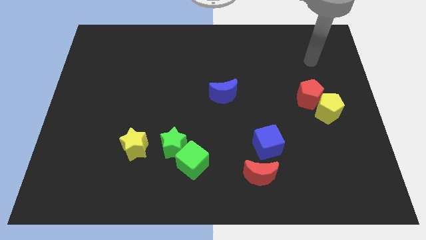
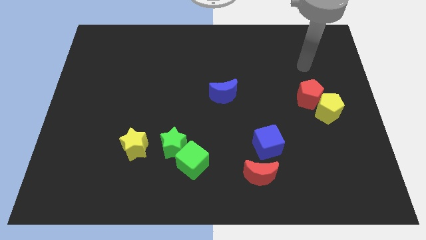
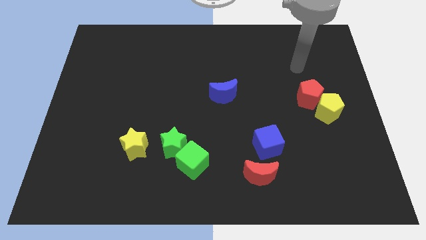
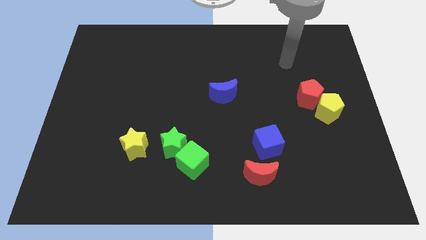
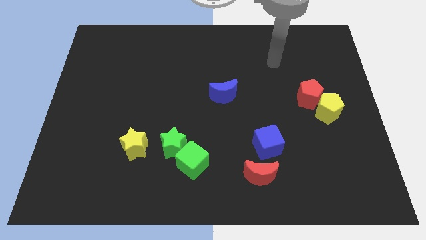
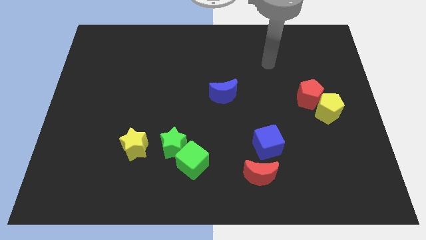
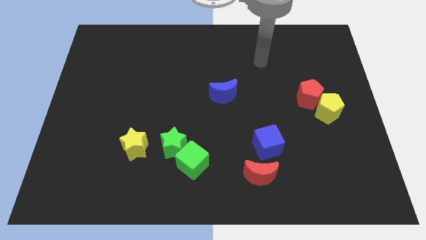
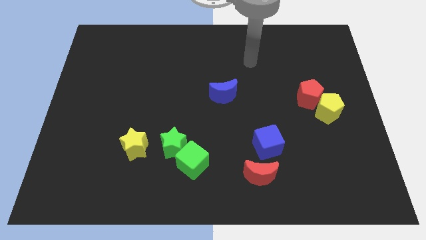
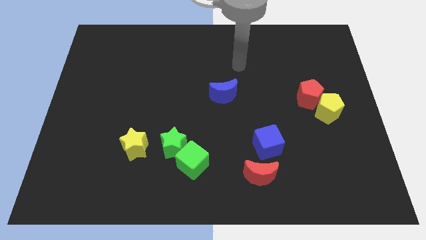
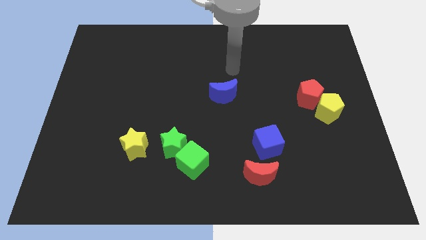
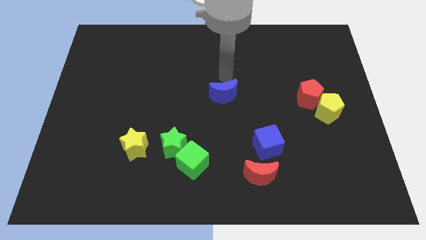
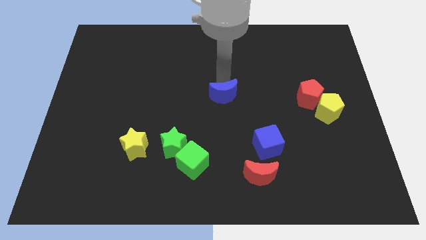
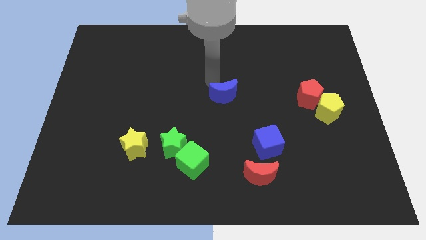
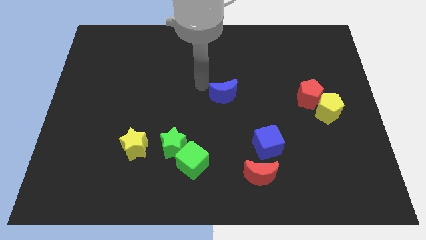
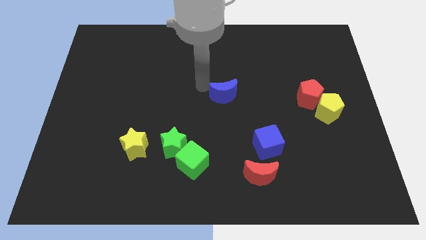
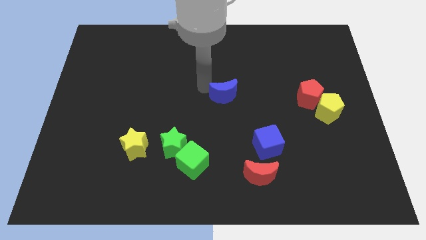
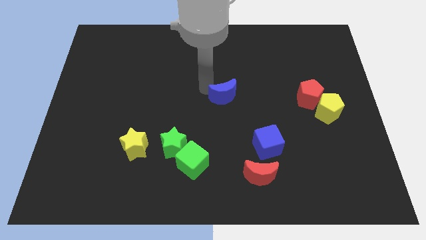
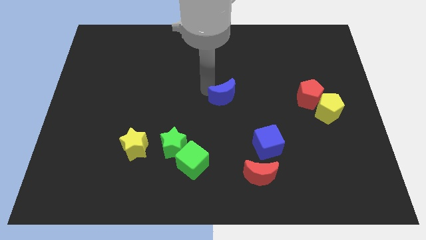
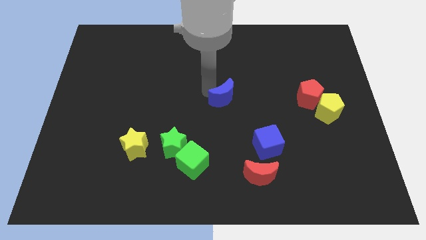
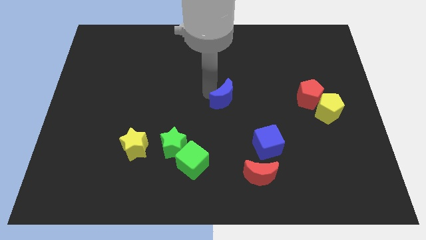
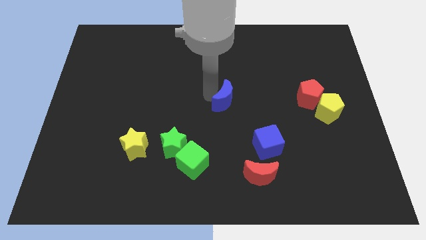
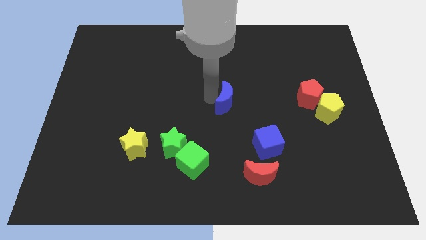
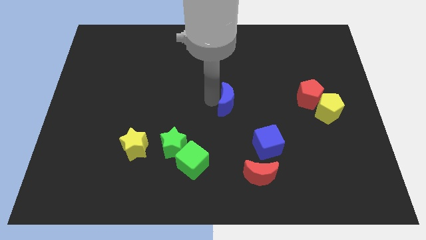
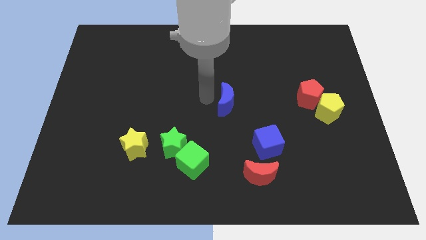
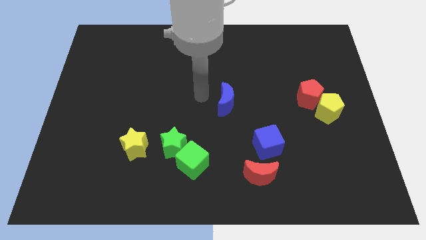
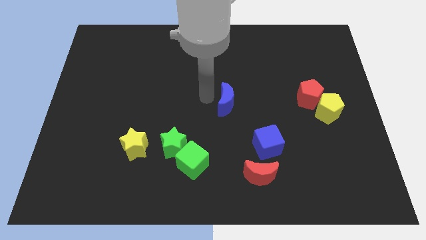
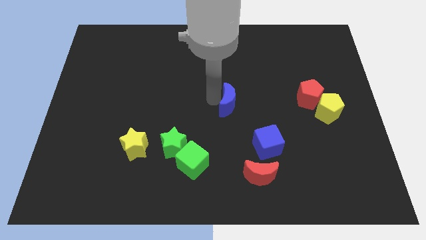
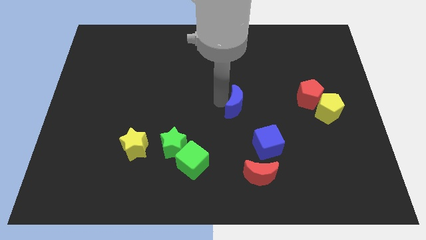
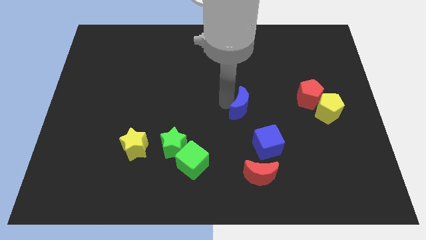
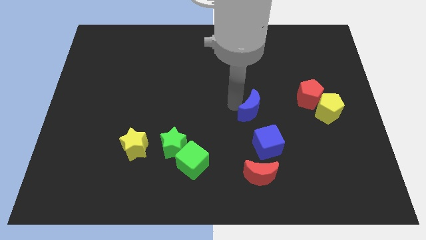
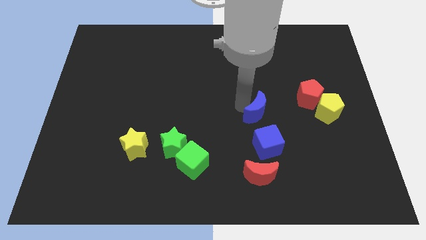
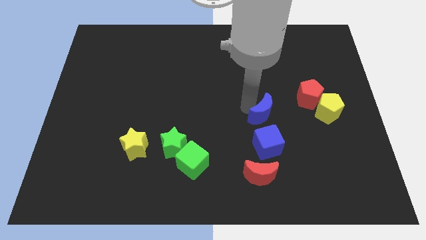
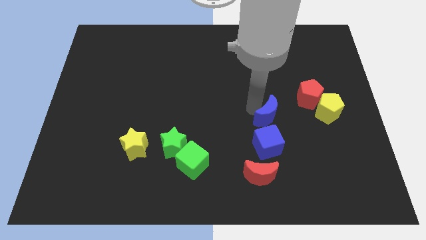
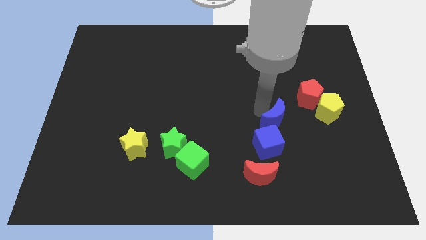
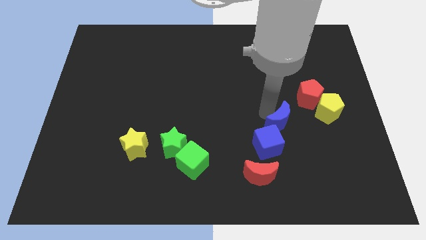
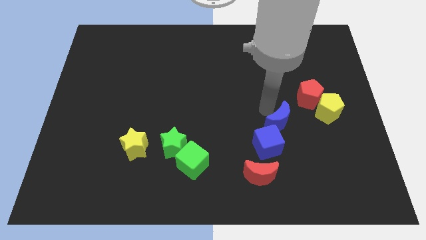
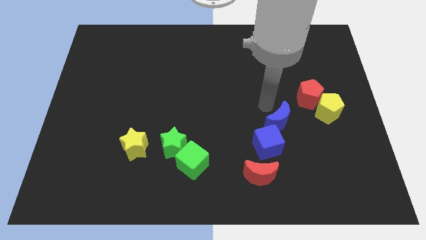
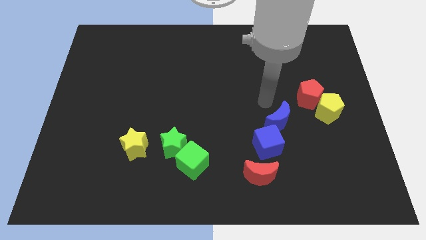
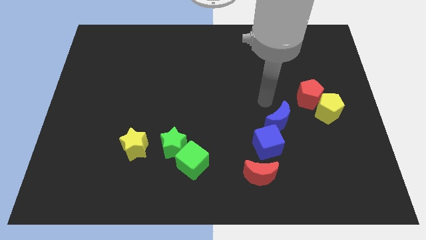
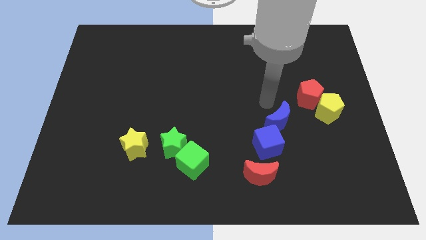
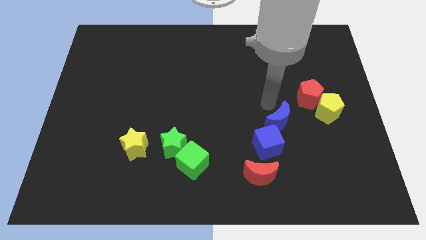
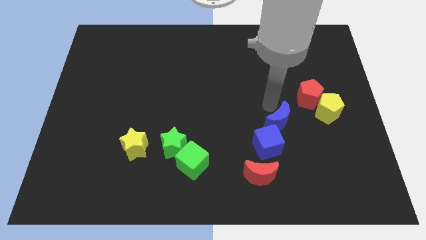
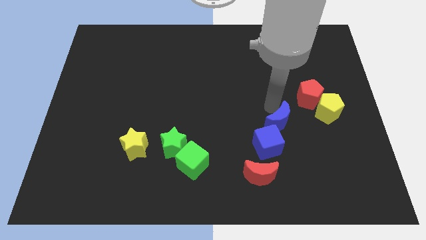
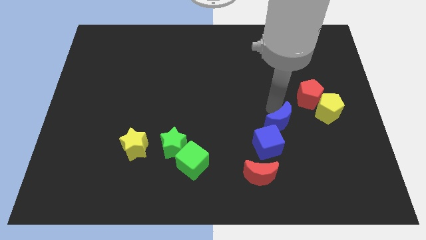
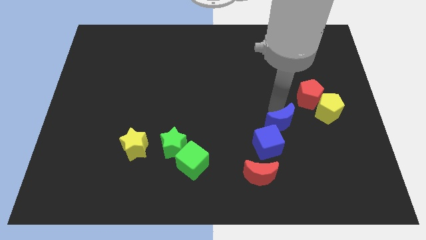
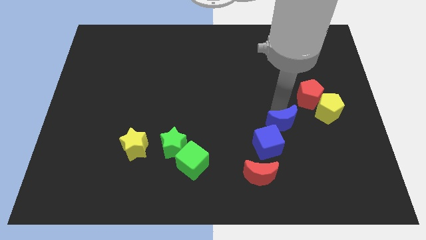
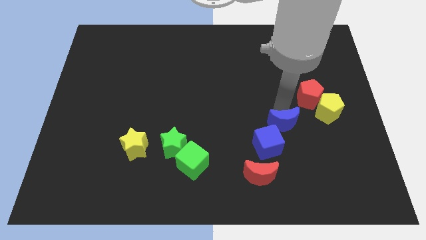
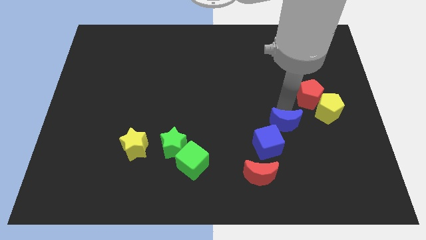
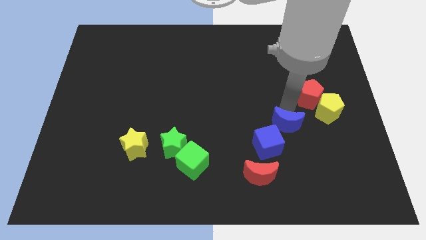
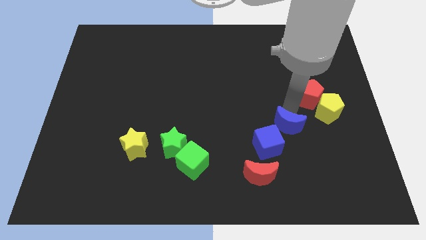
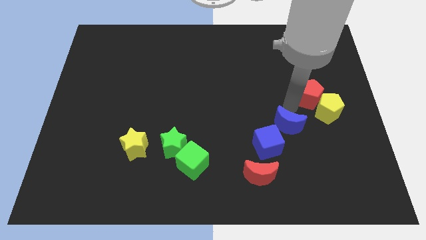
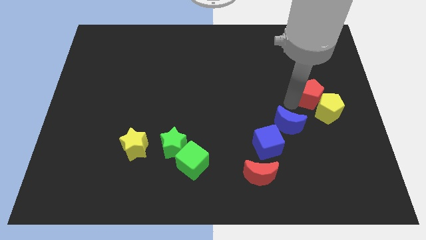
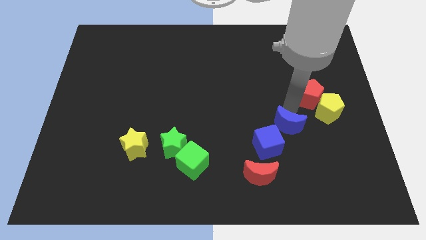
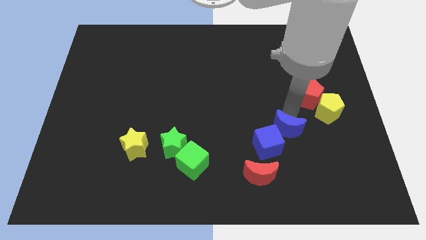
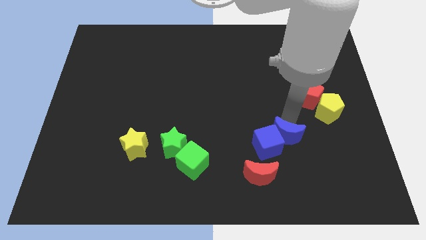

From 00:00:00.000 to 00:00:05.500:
put the blue moon to the top right of the red moon

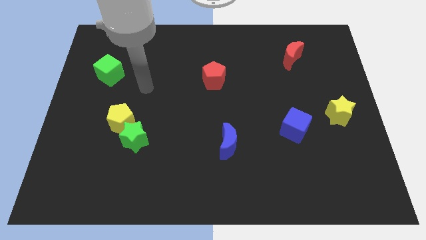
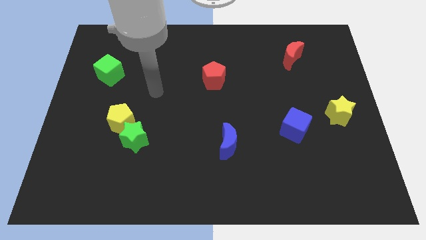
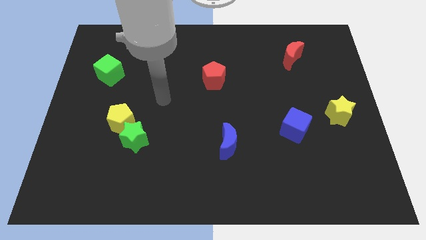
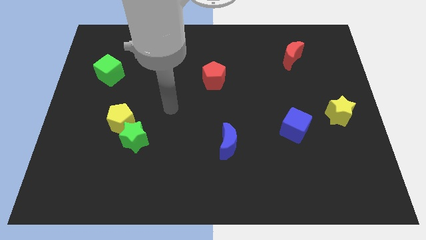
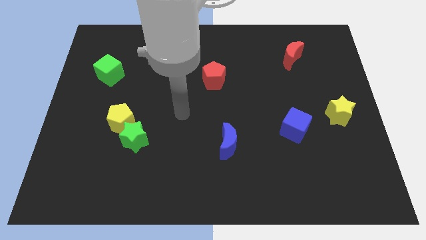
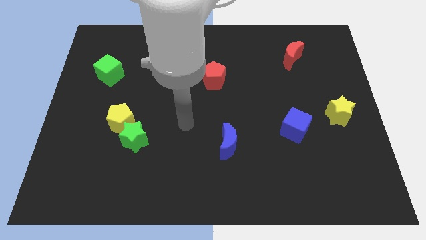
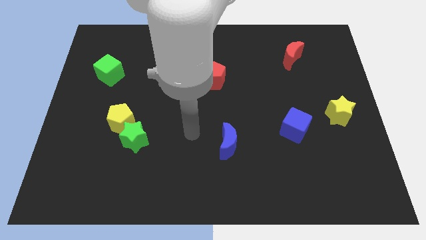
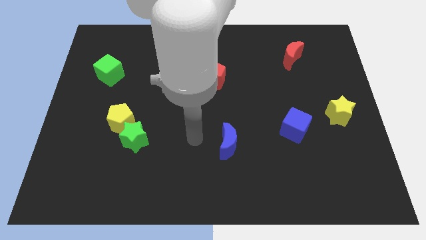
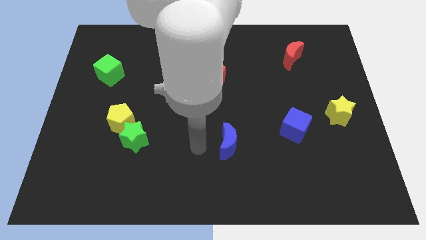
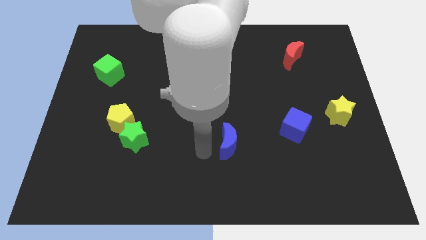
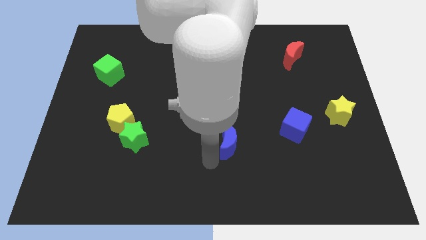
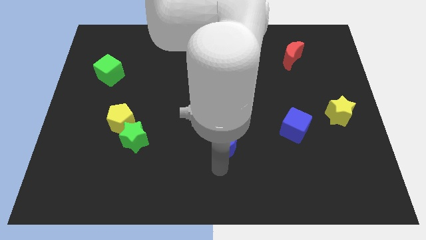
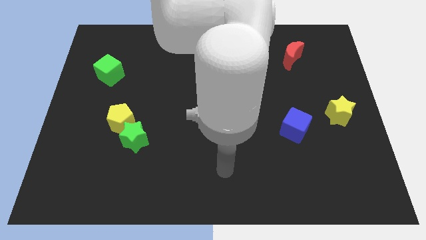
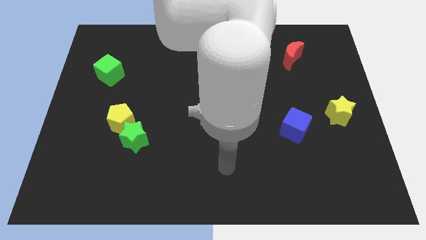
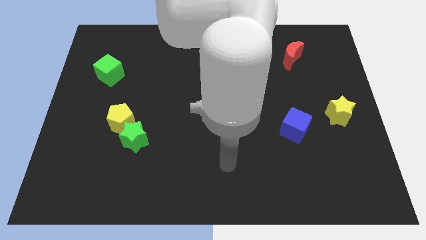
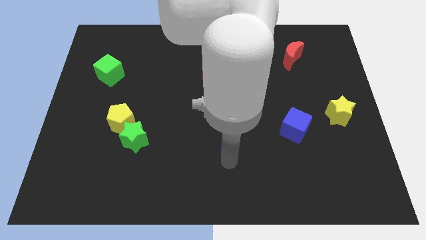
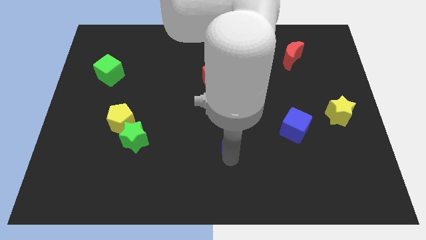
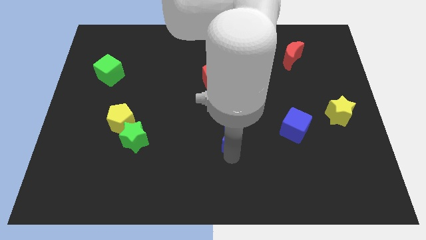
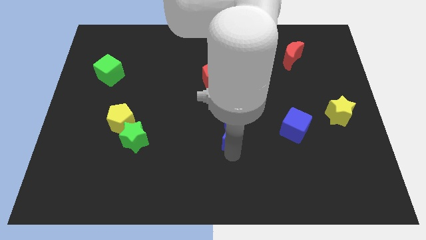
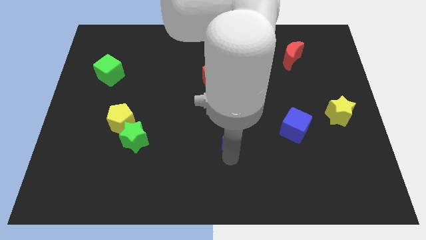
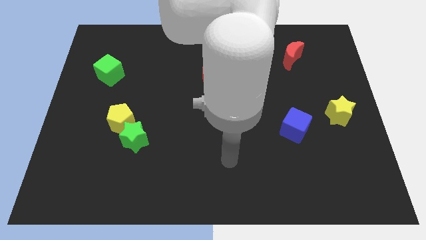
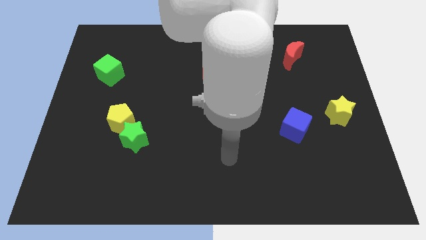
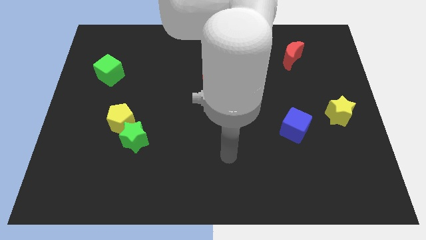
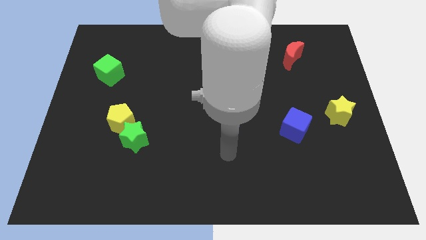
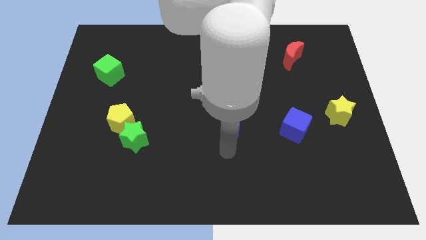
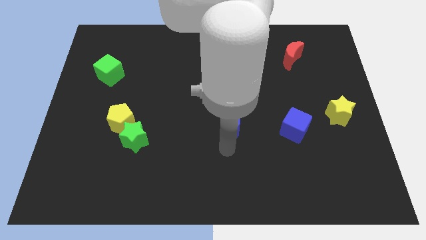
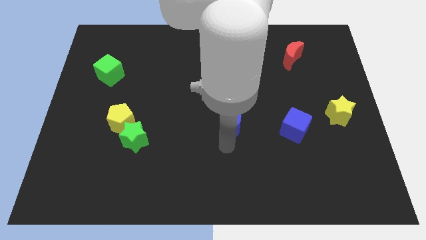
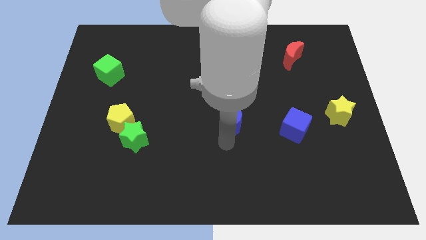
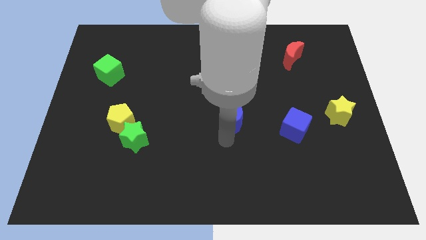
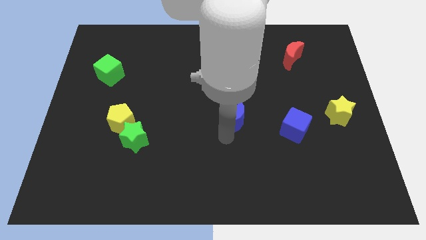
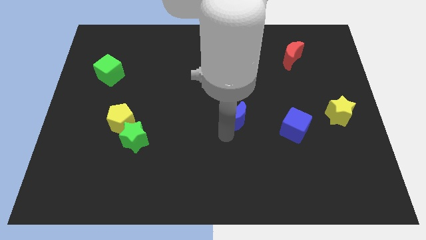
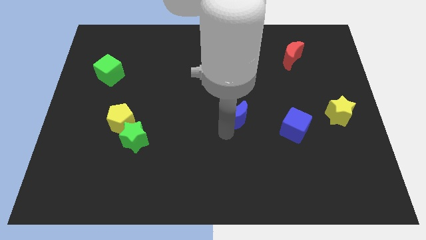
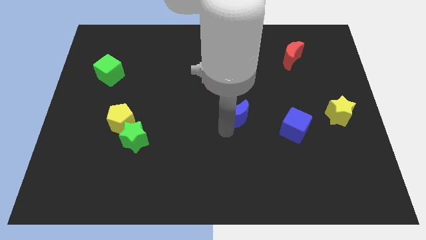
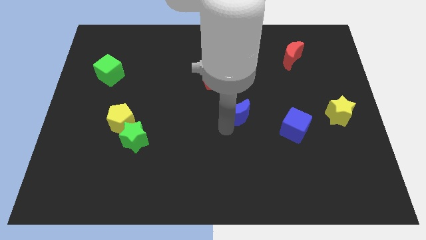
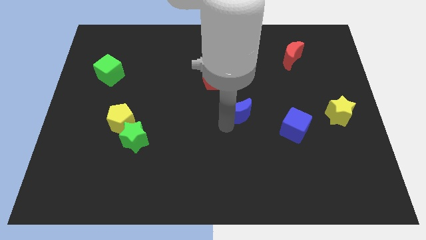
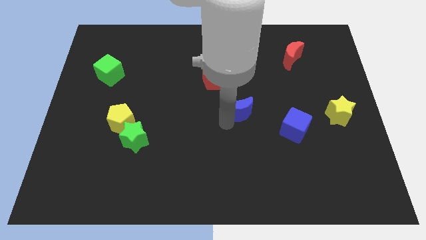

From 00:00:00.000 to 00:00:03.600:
slide the blue moon to the bottom right of the red pentagon
